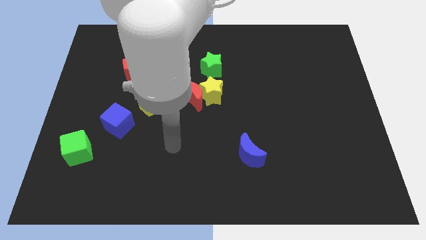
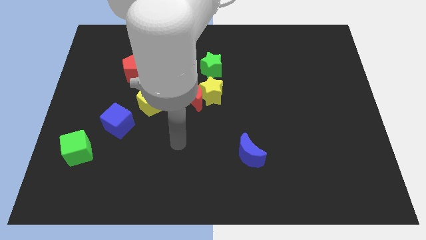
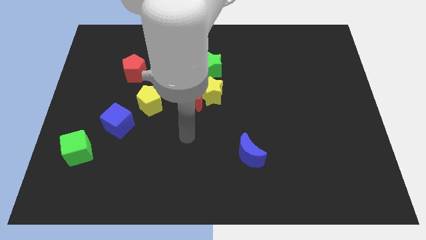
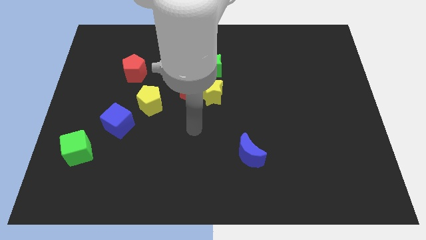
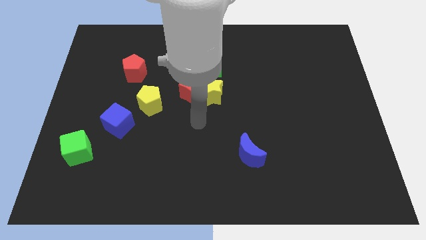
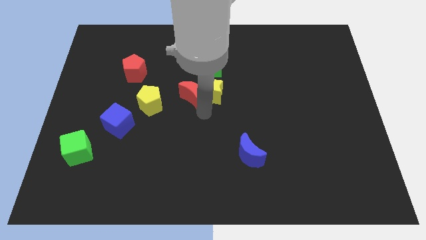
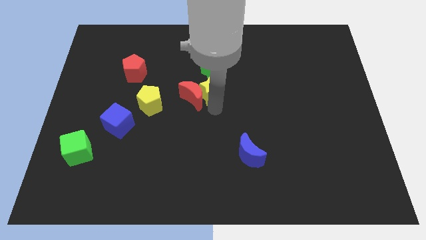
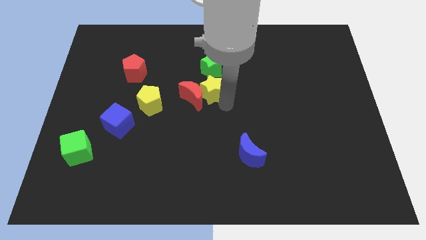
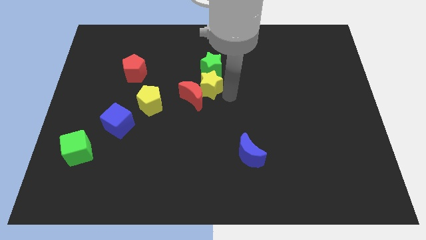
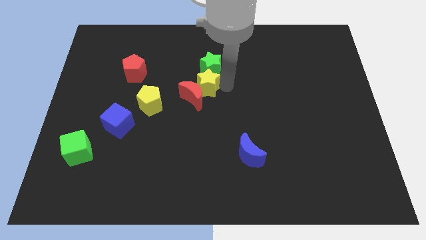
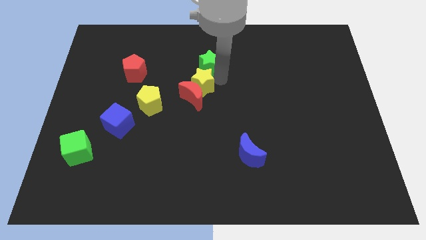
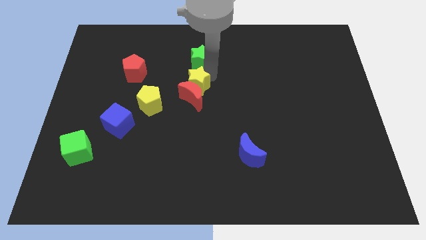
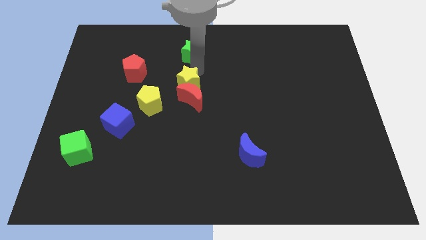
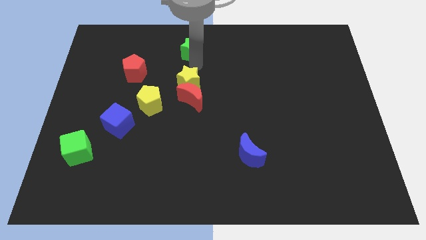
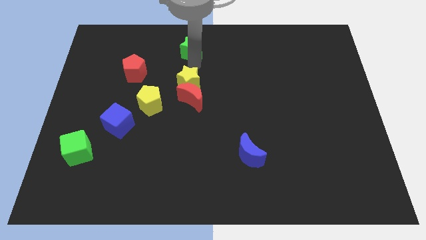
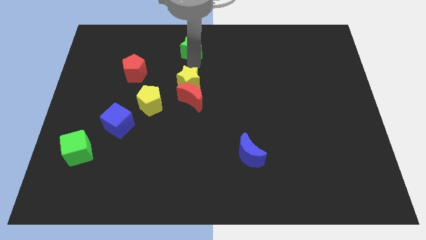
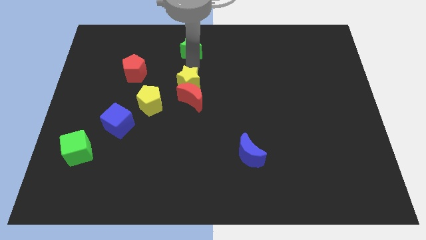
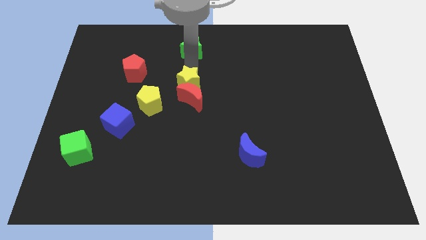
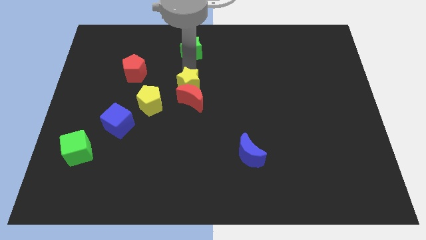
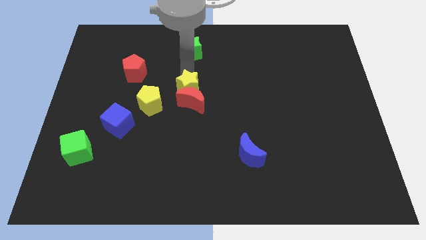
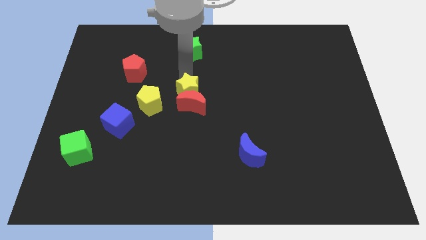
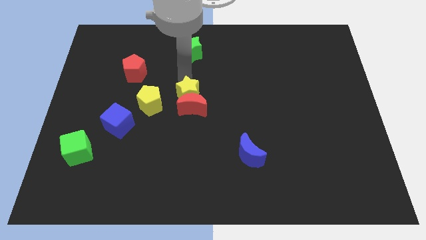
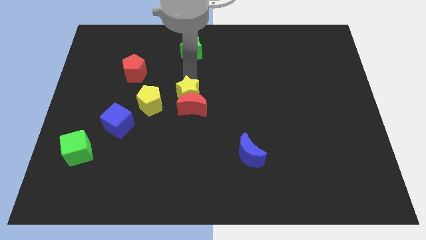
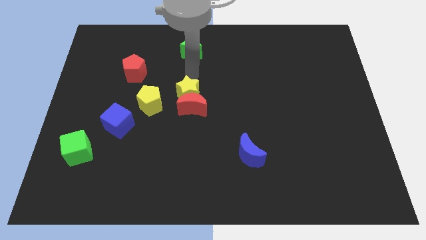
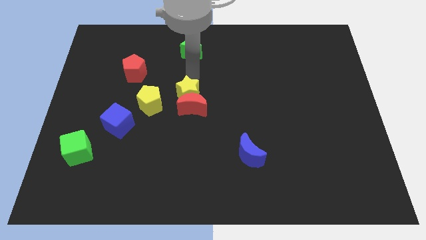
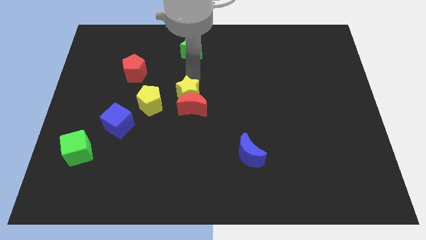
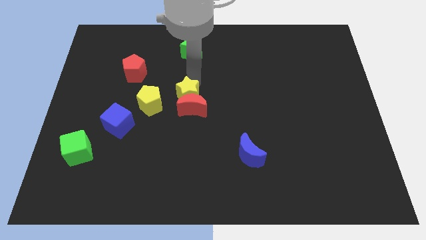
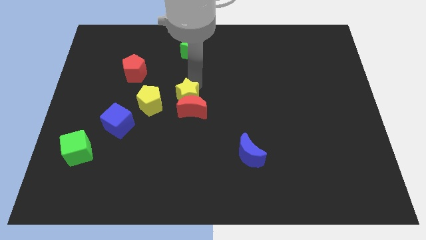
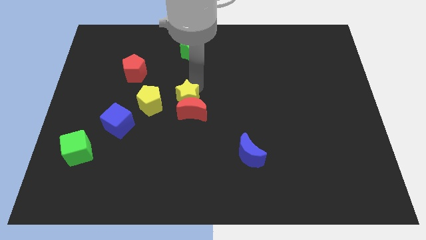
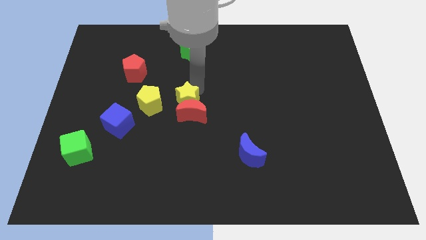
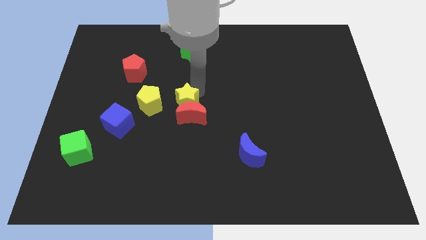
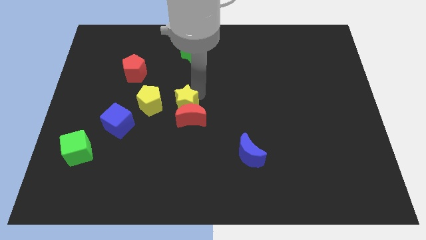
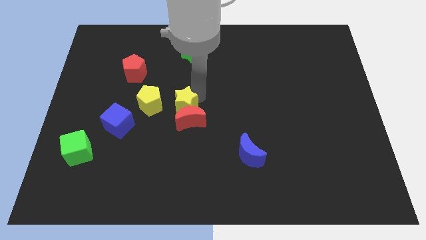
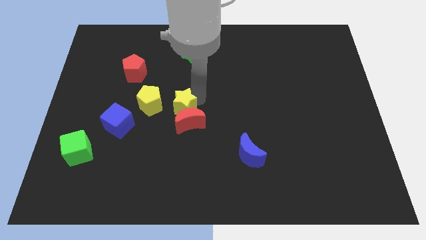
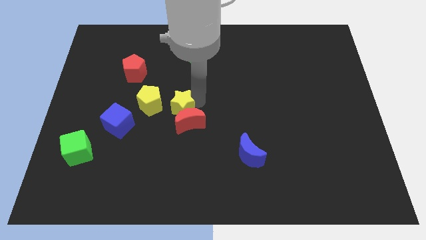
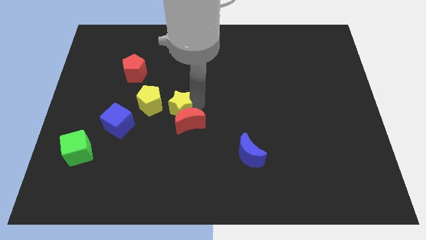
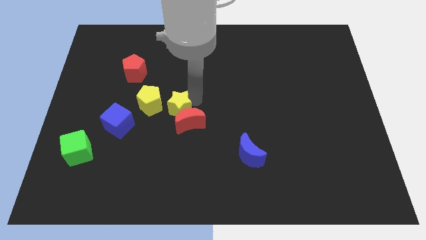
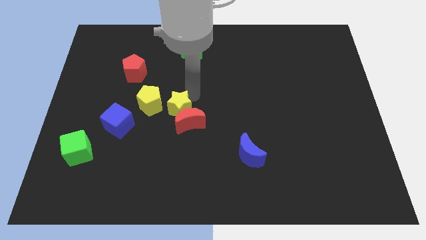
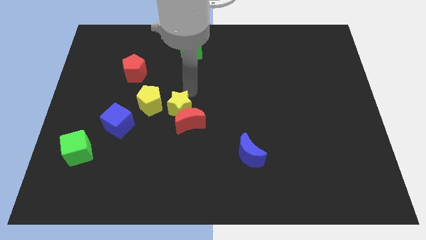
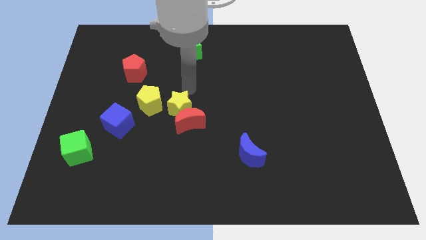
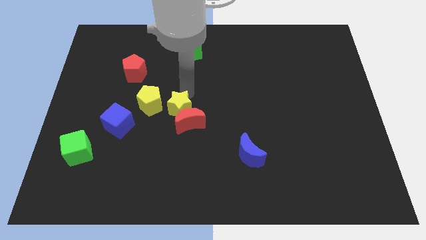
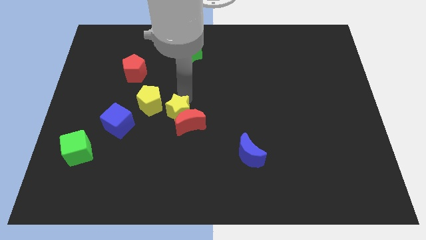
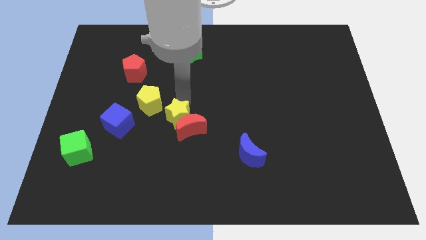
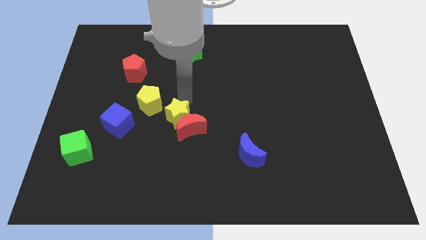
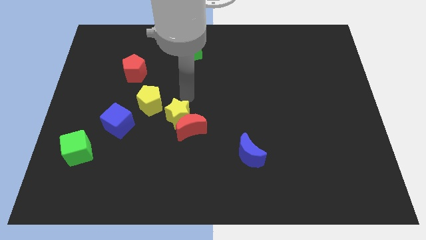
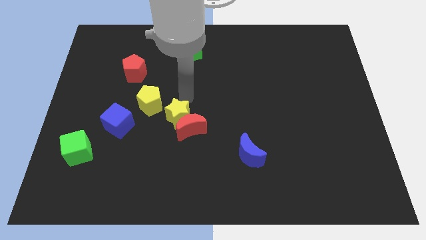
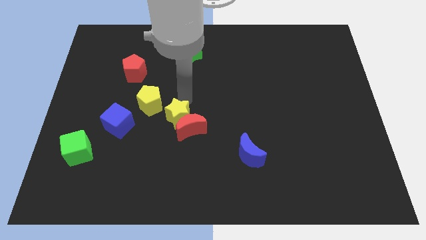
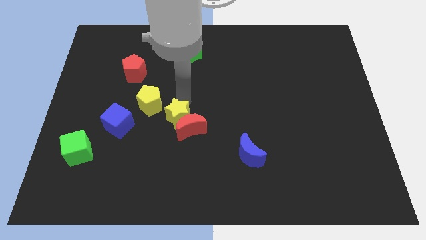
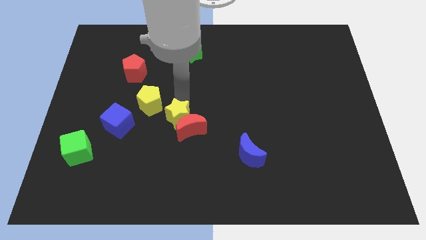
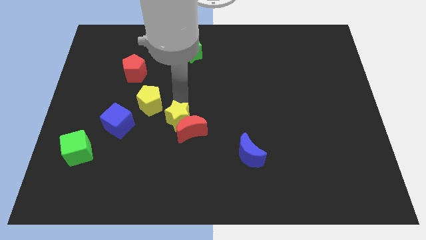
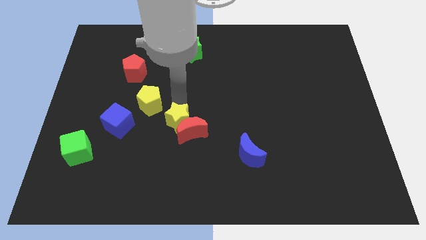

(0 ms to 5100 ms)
separate the yellow star from the red moon and green star

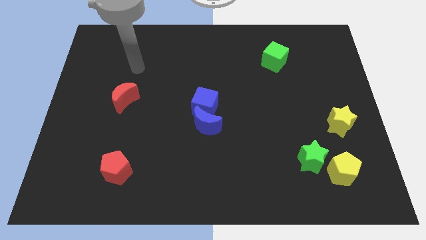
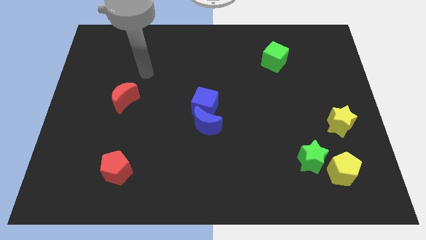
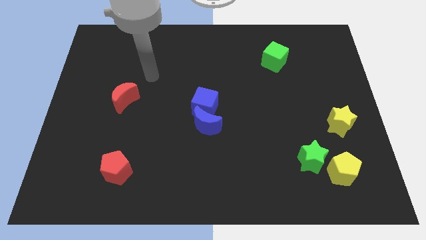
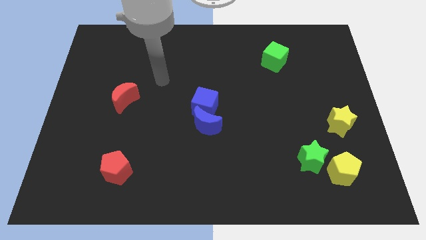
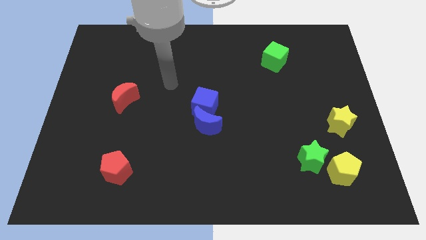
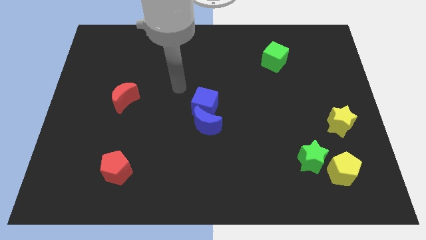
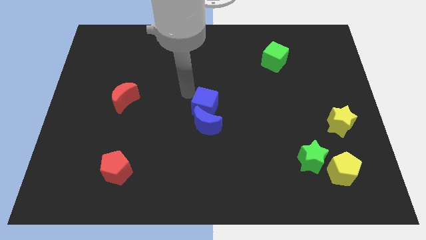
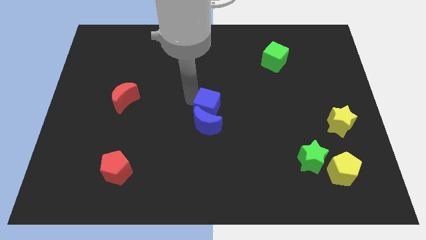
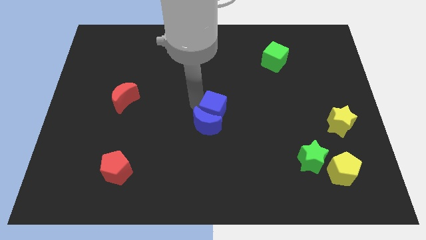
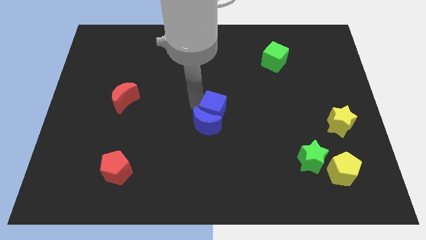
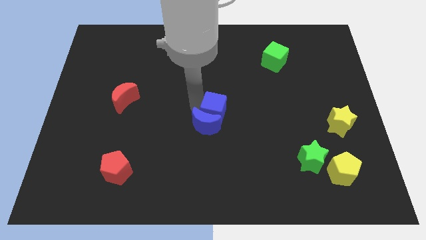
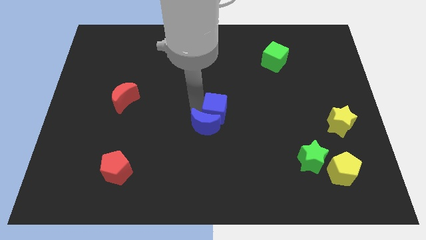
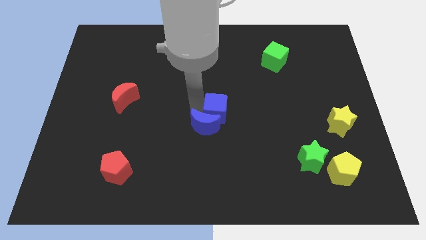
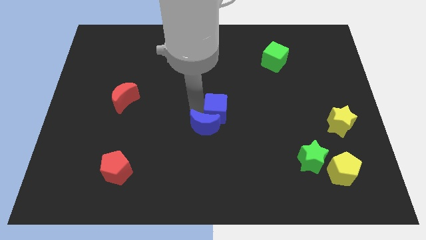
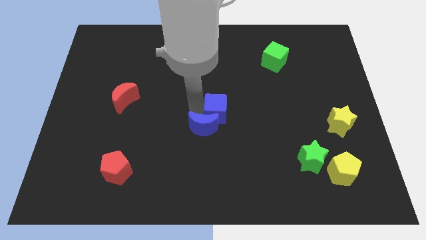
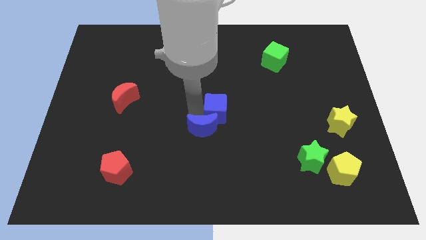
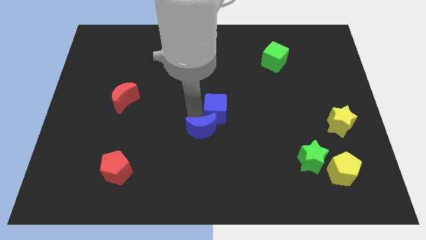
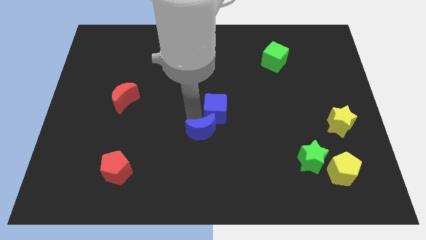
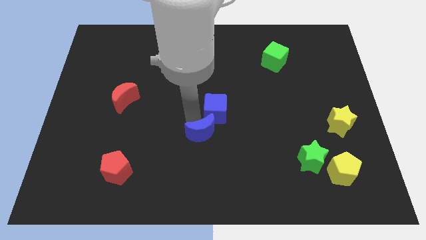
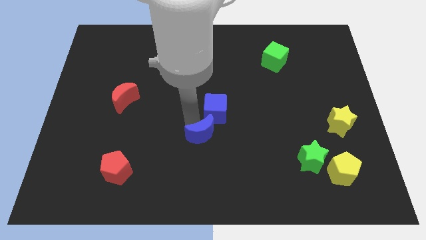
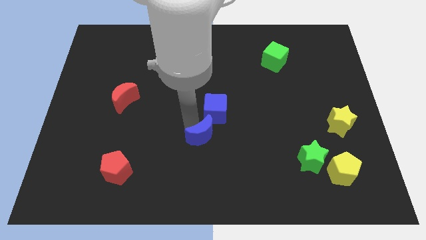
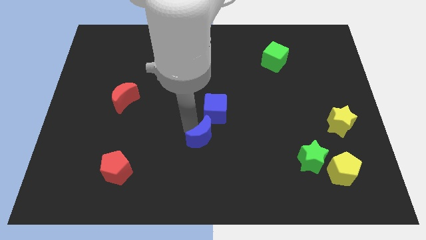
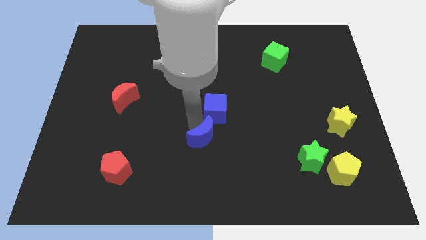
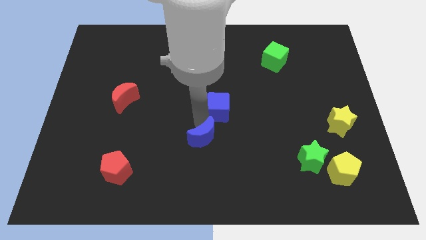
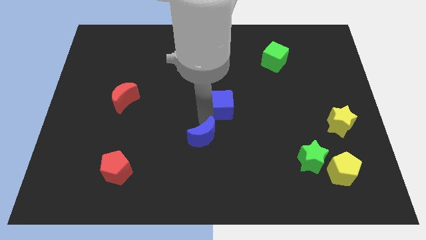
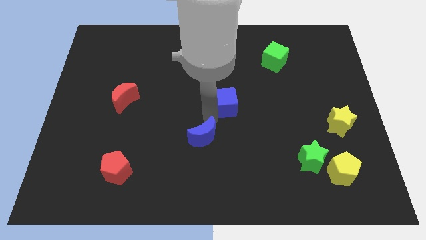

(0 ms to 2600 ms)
move the blue moon away from the blue cube

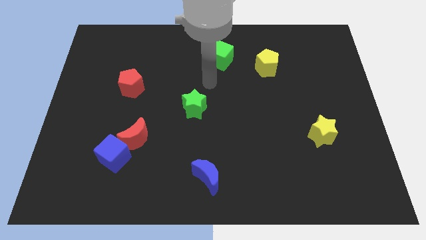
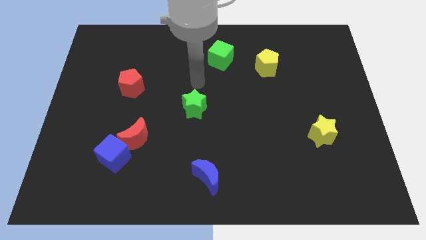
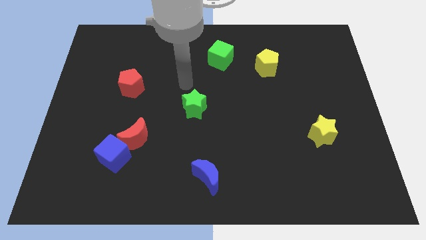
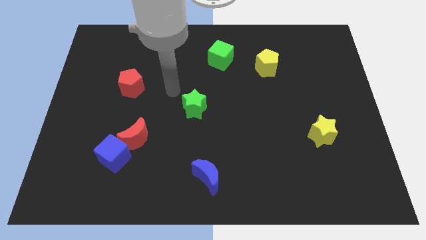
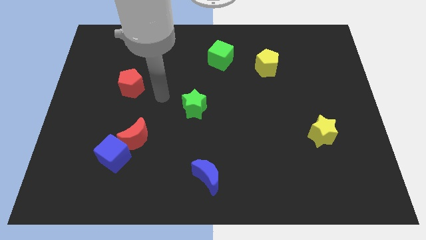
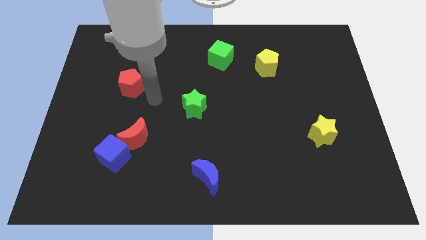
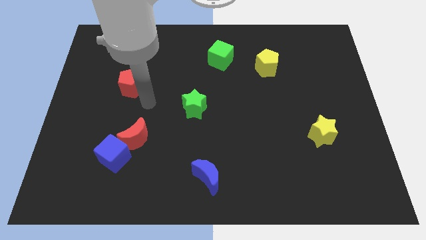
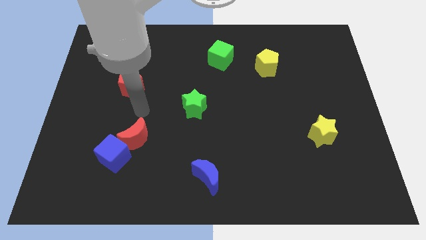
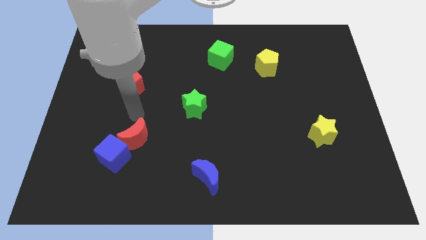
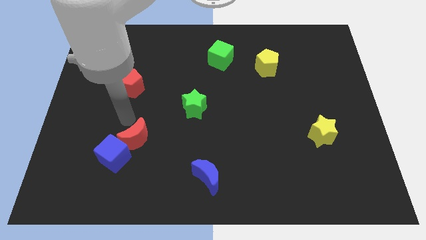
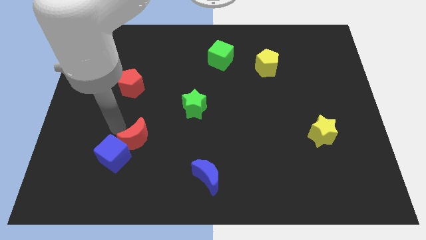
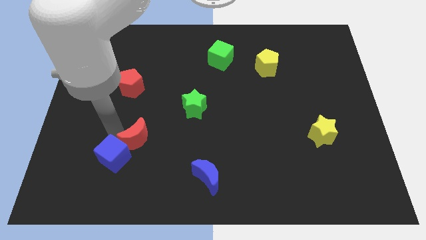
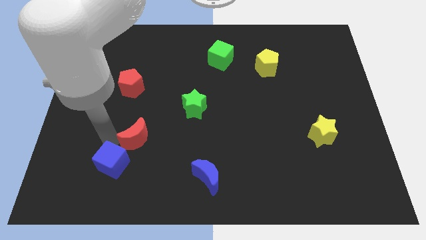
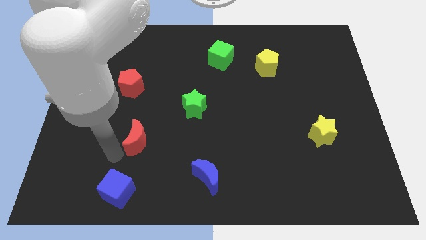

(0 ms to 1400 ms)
pull the red moon apart from the blue cube

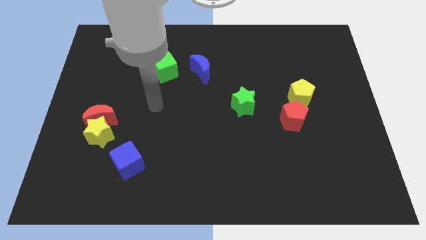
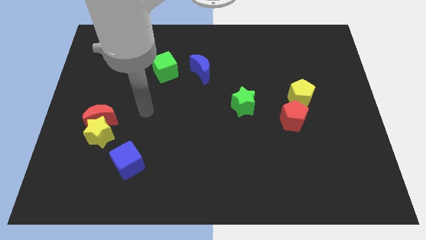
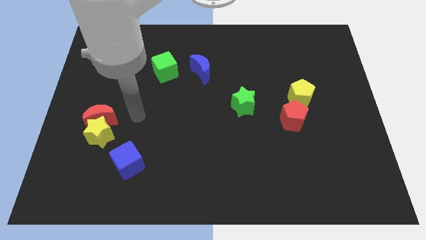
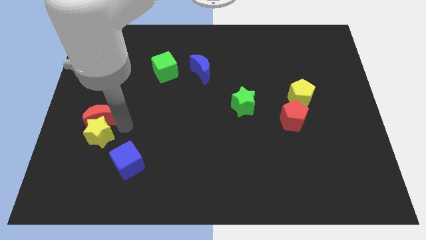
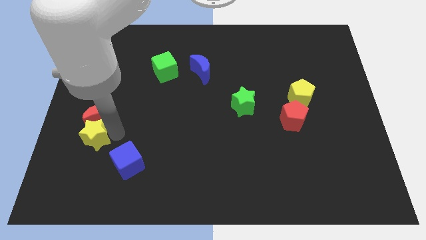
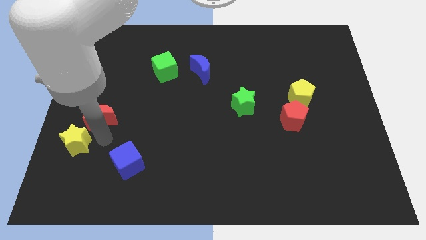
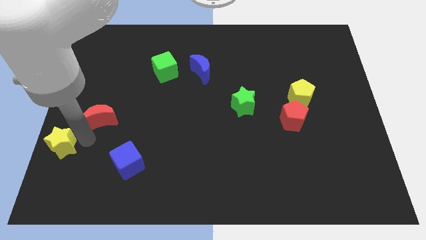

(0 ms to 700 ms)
pull the red moon apart from the yellow star
